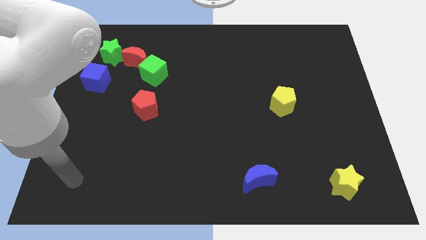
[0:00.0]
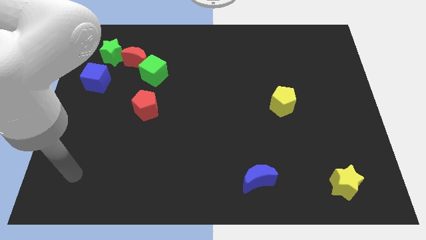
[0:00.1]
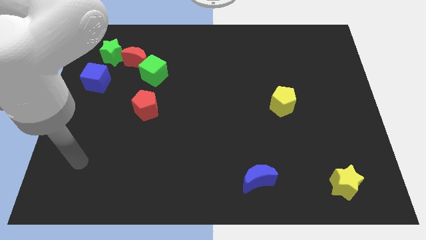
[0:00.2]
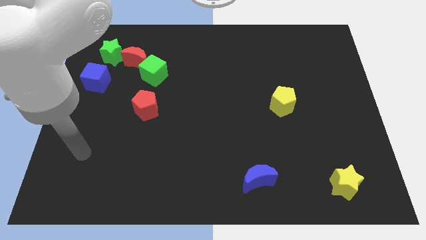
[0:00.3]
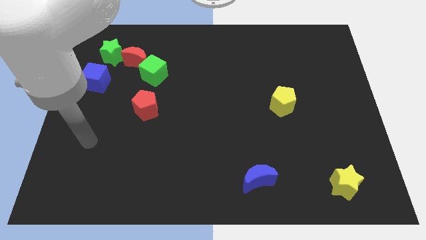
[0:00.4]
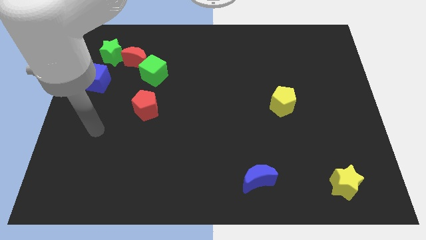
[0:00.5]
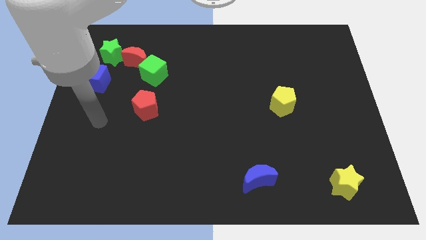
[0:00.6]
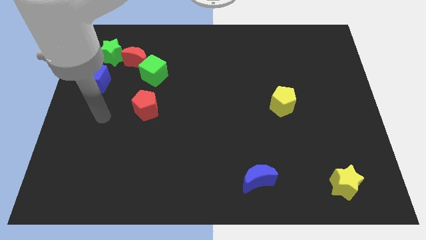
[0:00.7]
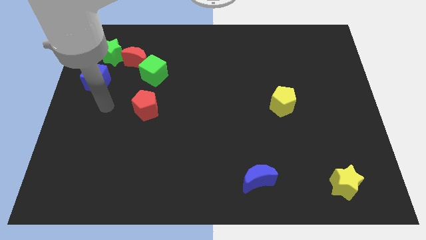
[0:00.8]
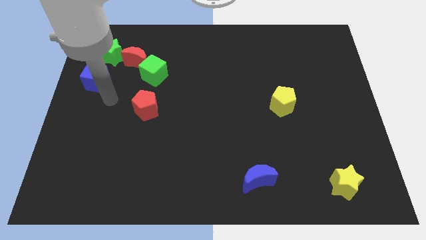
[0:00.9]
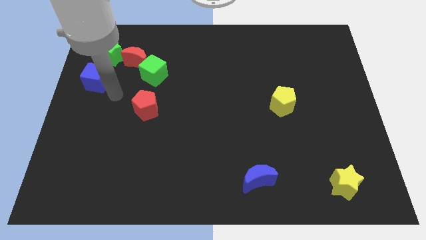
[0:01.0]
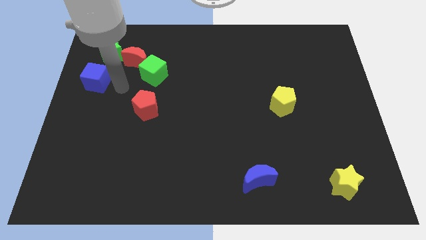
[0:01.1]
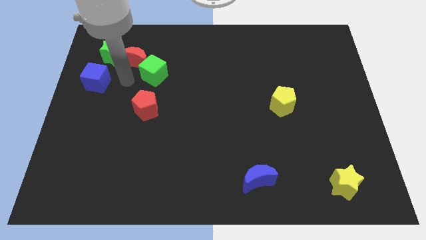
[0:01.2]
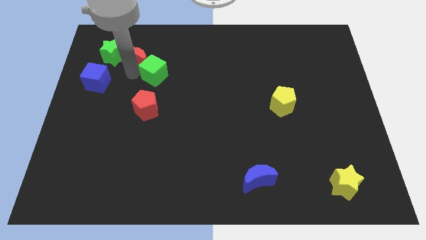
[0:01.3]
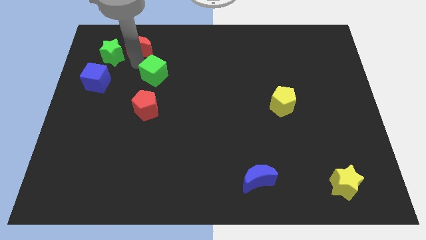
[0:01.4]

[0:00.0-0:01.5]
separate the green cube from the red moon

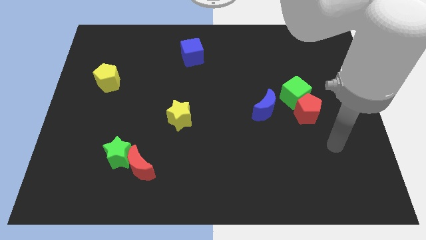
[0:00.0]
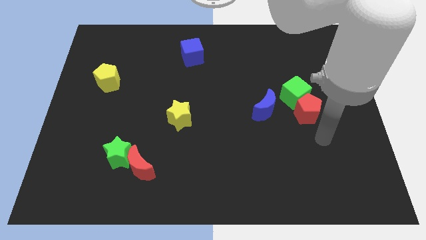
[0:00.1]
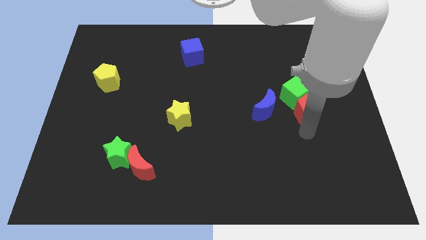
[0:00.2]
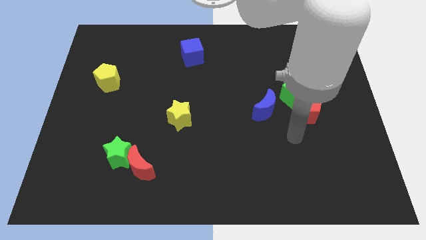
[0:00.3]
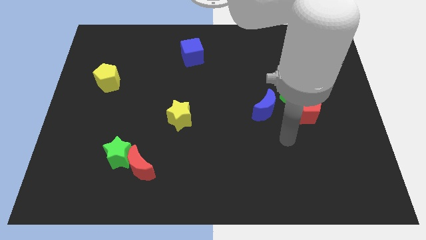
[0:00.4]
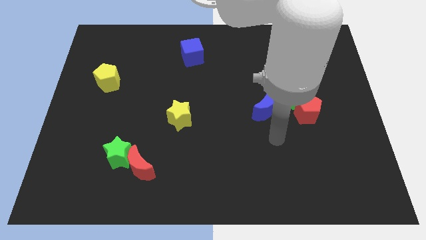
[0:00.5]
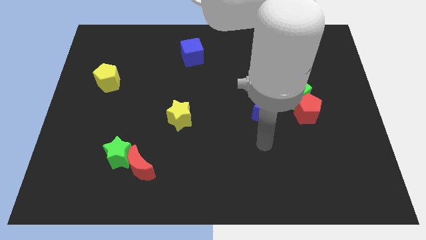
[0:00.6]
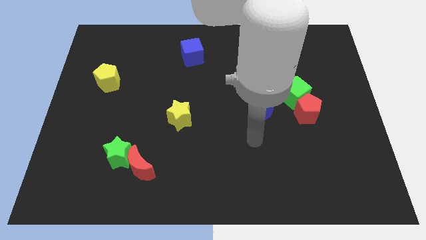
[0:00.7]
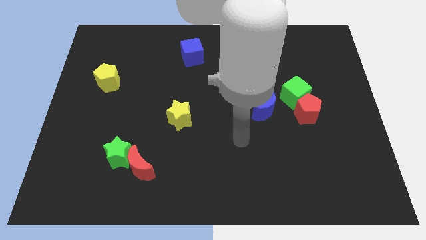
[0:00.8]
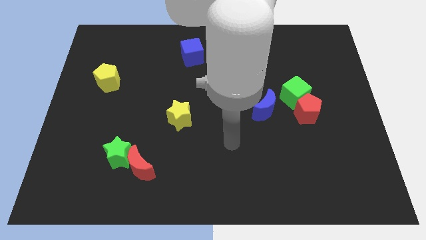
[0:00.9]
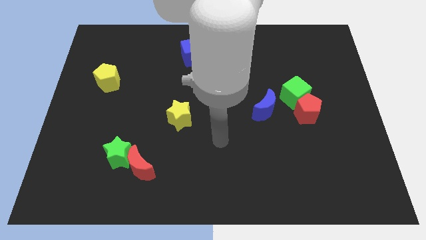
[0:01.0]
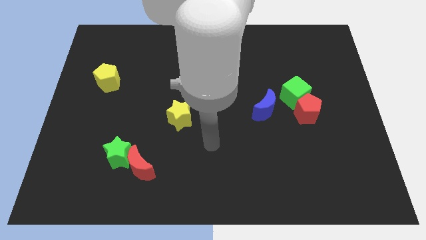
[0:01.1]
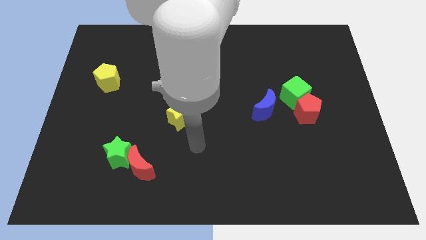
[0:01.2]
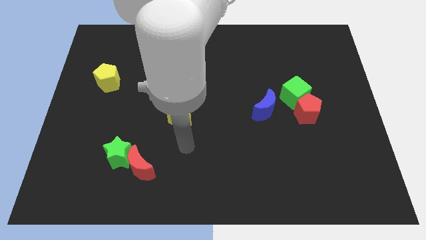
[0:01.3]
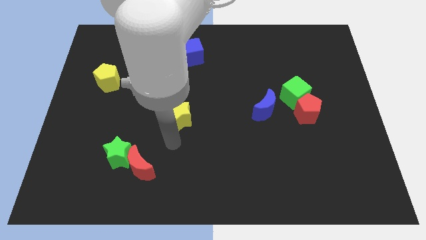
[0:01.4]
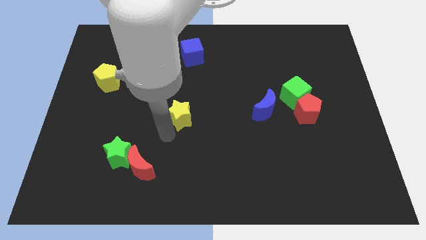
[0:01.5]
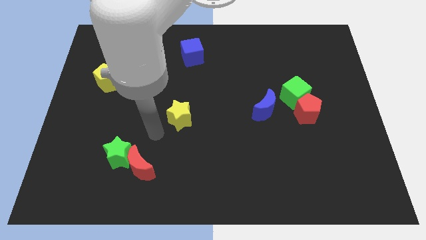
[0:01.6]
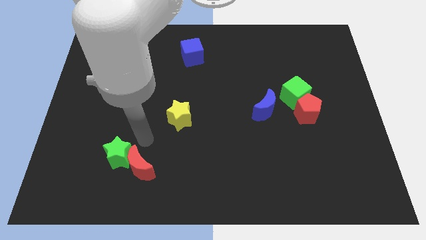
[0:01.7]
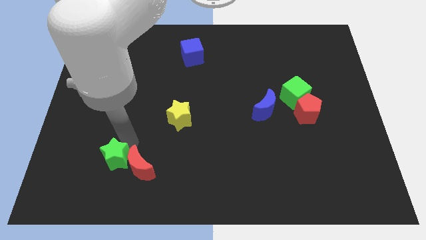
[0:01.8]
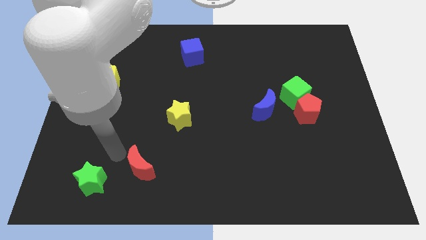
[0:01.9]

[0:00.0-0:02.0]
pull the red moon apart from the green star

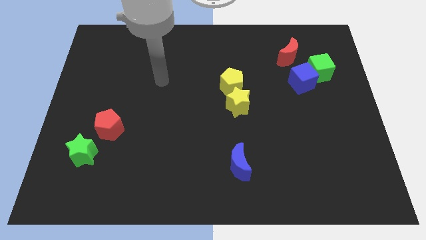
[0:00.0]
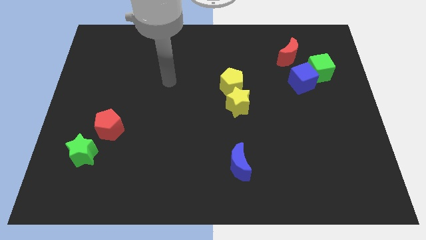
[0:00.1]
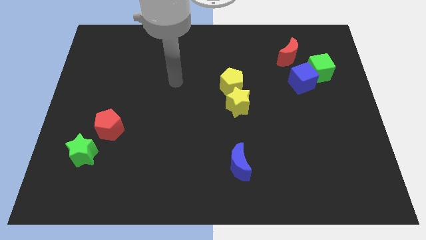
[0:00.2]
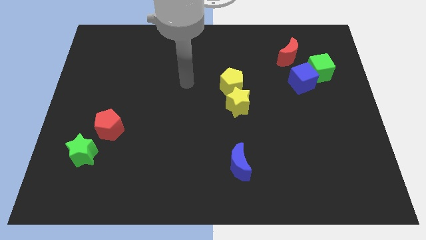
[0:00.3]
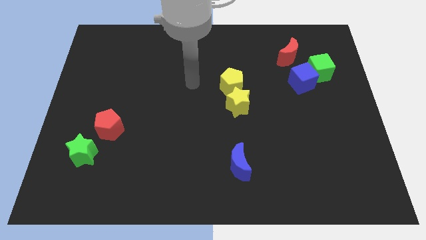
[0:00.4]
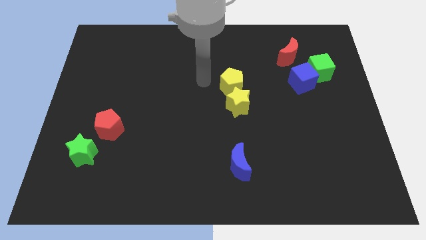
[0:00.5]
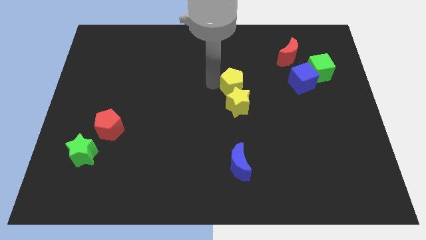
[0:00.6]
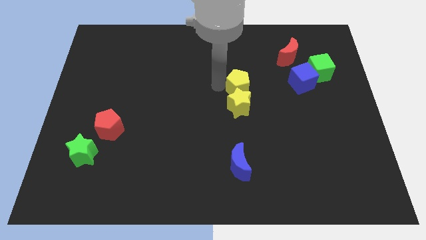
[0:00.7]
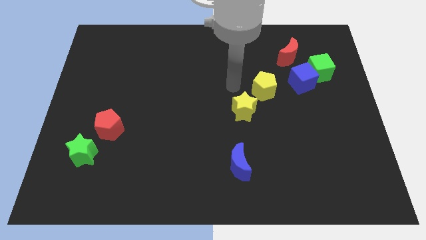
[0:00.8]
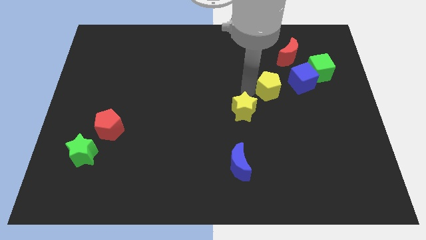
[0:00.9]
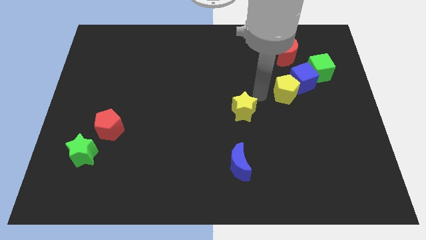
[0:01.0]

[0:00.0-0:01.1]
separate the yellow star from the yellow pentagon

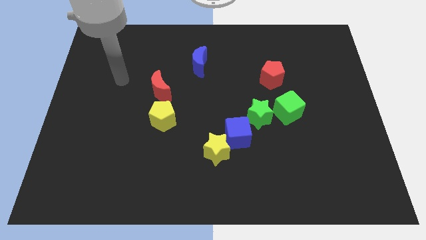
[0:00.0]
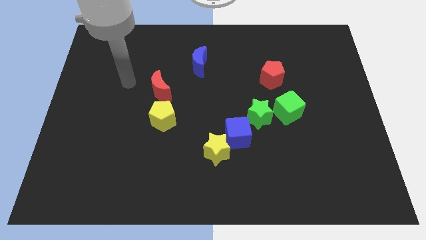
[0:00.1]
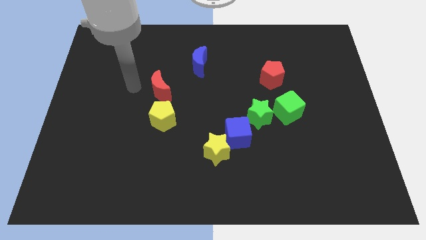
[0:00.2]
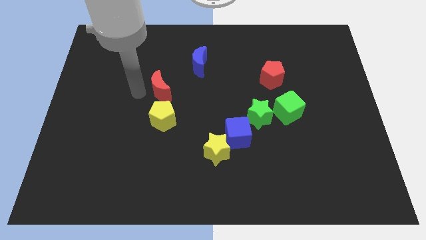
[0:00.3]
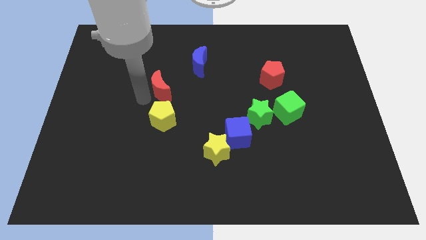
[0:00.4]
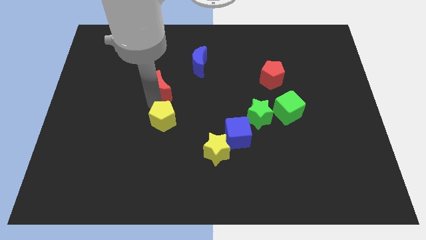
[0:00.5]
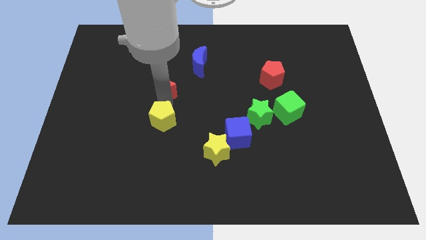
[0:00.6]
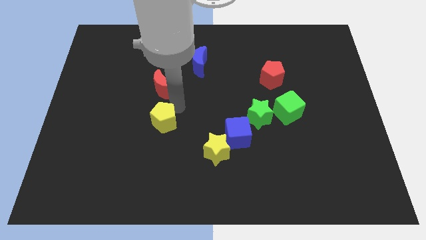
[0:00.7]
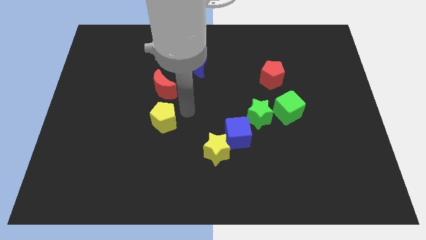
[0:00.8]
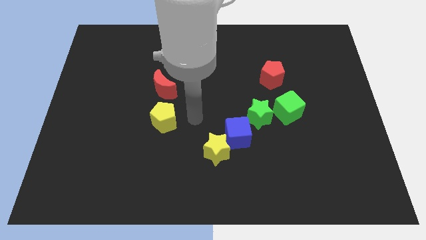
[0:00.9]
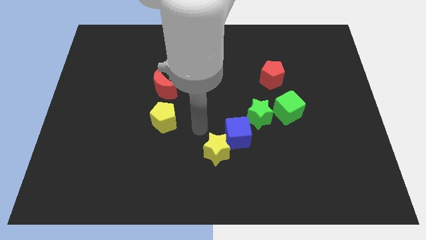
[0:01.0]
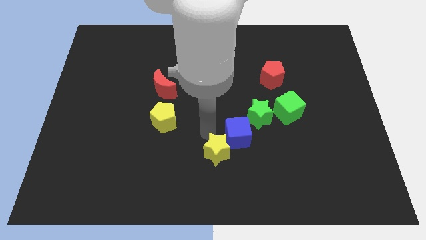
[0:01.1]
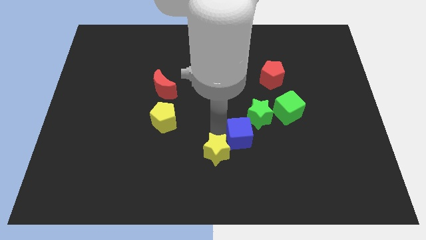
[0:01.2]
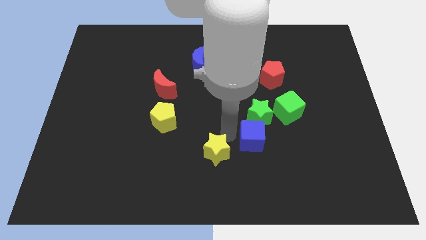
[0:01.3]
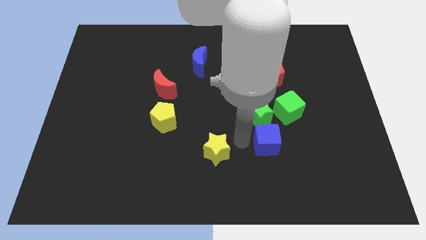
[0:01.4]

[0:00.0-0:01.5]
pull the yellow star apart from the blue cube

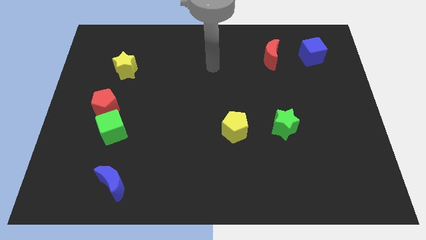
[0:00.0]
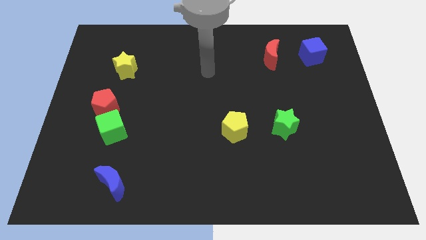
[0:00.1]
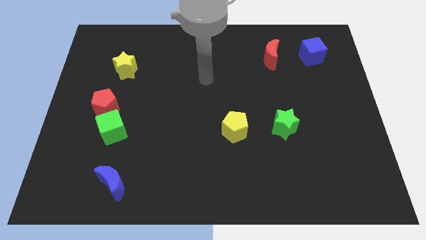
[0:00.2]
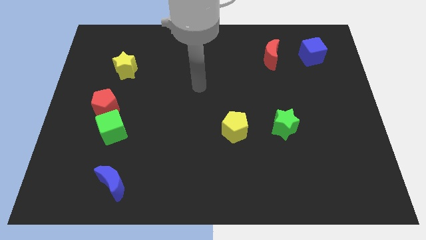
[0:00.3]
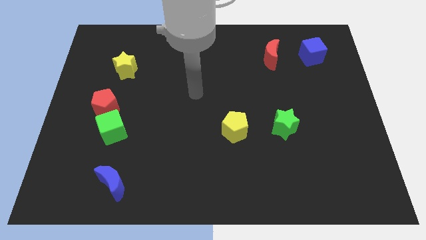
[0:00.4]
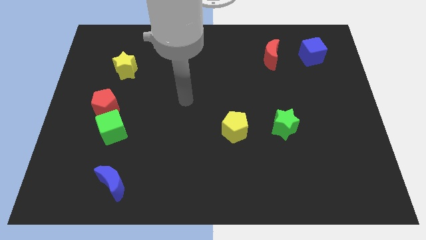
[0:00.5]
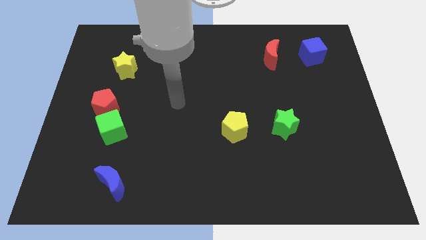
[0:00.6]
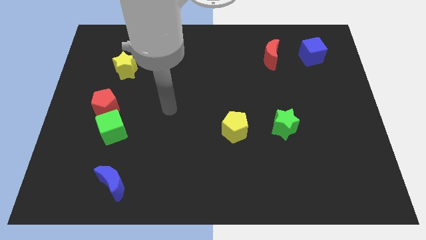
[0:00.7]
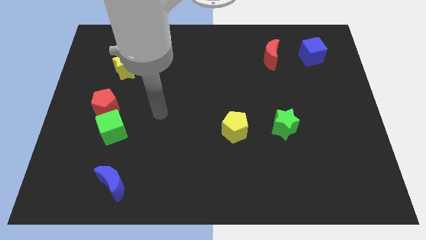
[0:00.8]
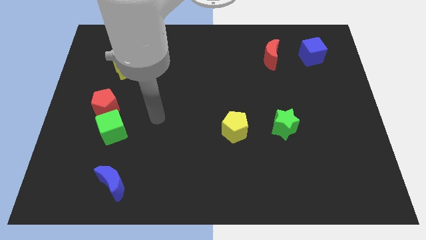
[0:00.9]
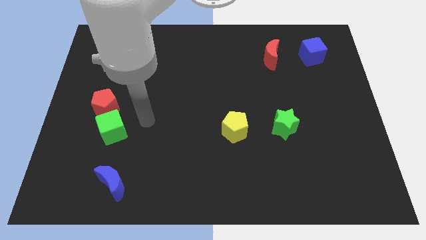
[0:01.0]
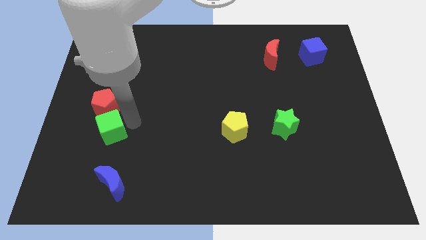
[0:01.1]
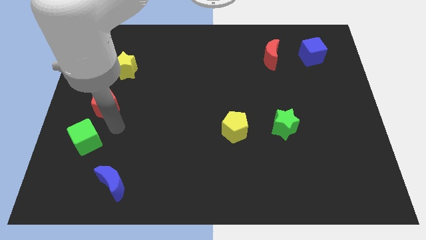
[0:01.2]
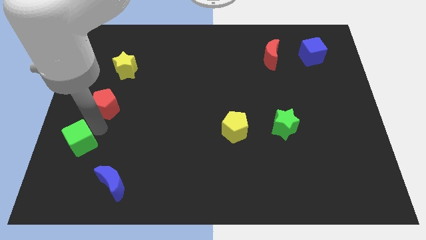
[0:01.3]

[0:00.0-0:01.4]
move the red pentagon away from the green cube

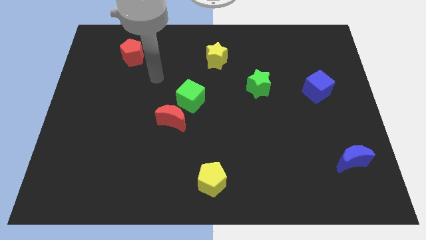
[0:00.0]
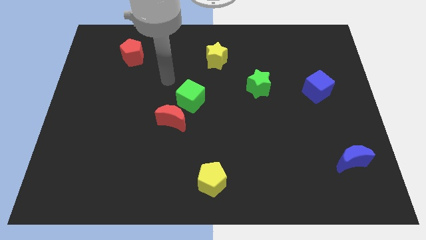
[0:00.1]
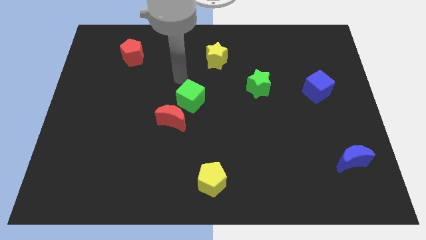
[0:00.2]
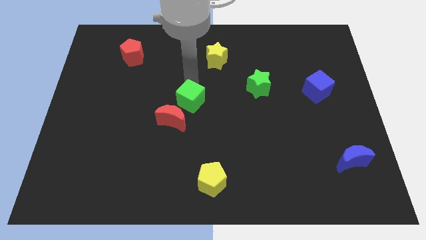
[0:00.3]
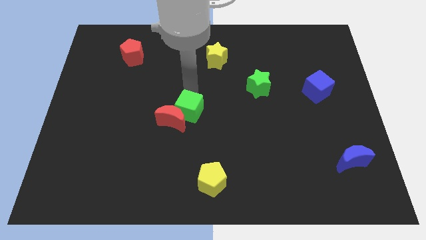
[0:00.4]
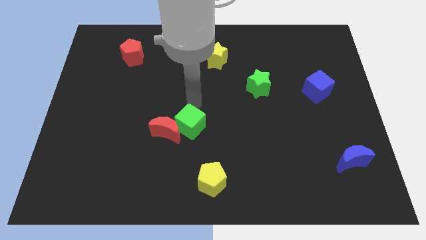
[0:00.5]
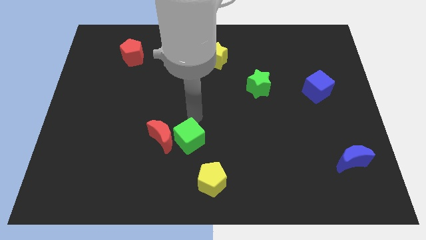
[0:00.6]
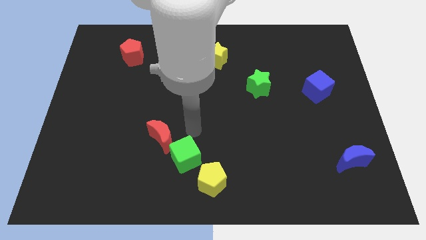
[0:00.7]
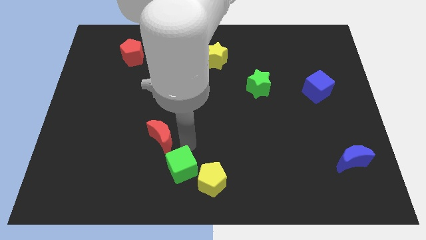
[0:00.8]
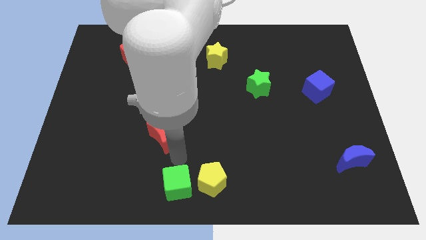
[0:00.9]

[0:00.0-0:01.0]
move the red moon away from the green cube

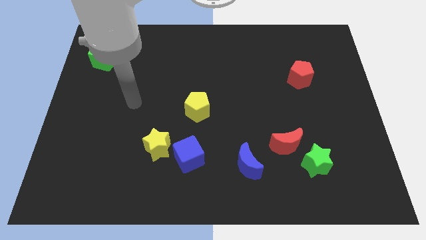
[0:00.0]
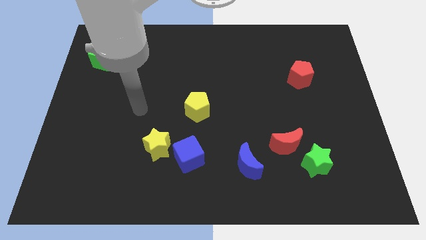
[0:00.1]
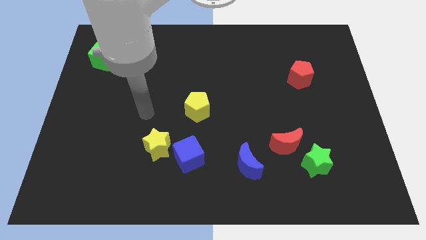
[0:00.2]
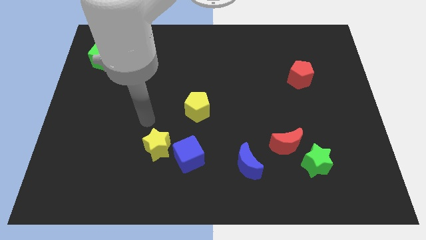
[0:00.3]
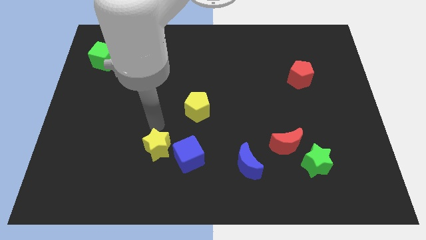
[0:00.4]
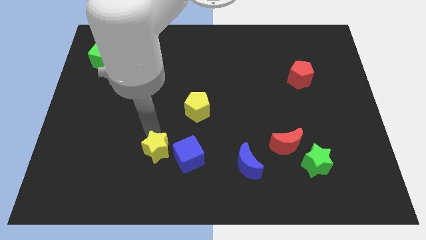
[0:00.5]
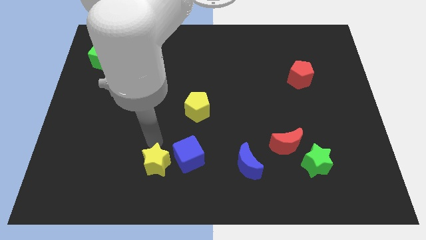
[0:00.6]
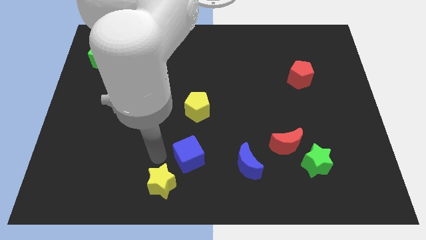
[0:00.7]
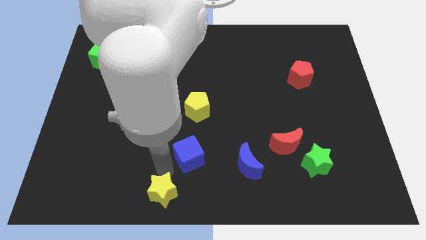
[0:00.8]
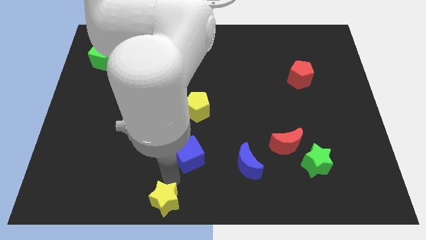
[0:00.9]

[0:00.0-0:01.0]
separate the blue cube from the yellow star

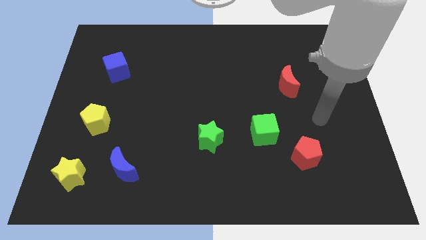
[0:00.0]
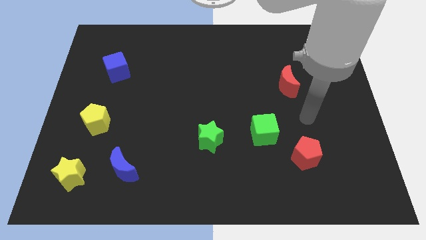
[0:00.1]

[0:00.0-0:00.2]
pull the blue moon apart from the yellow star
